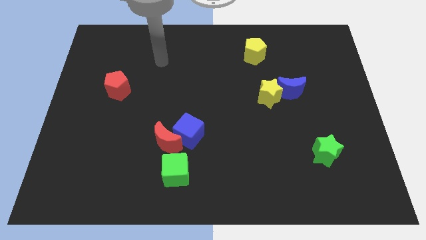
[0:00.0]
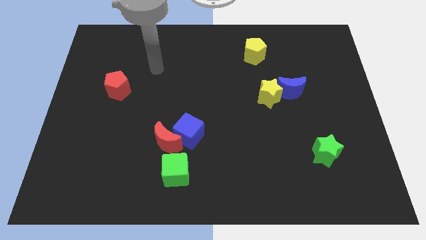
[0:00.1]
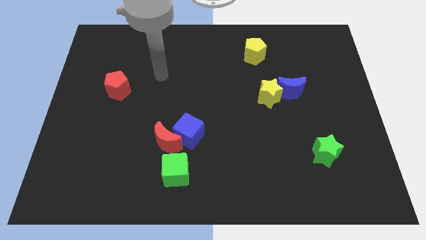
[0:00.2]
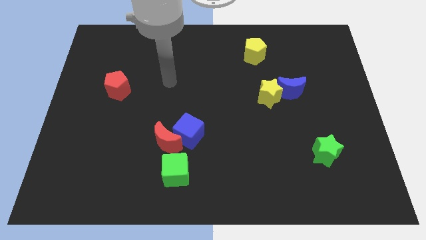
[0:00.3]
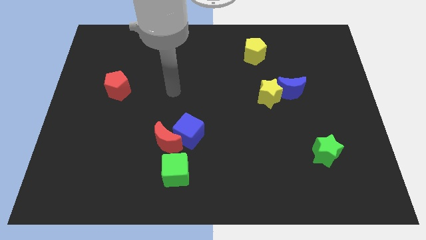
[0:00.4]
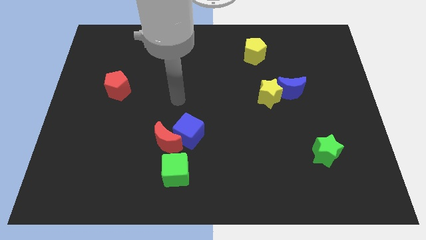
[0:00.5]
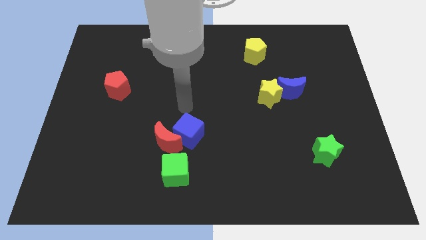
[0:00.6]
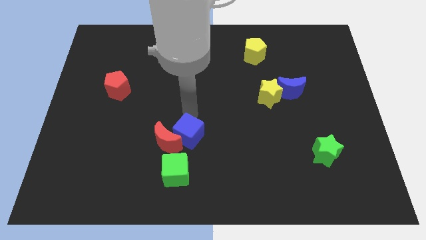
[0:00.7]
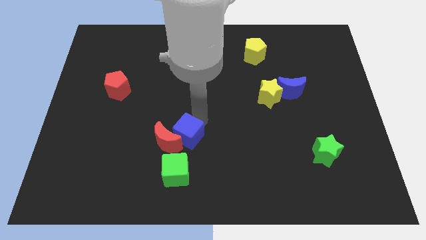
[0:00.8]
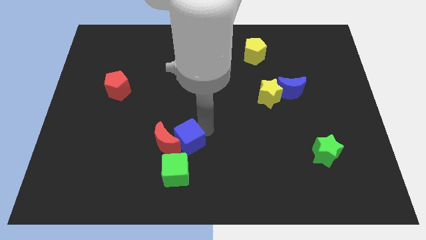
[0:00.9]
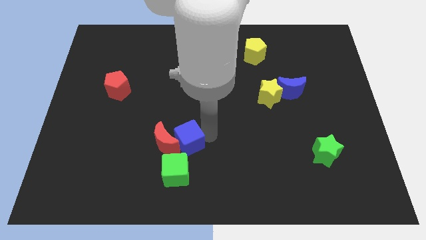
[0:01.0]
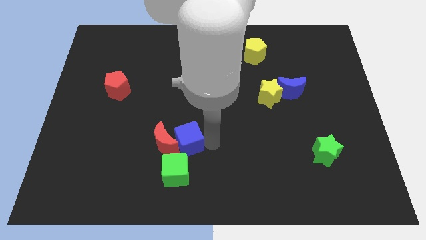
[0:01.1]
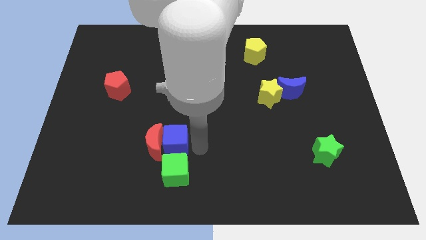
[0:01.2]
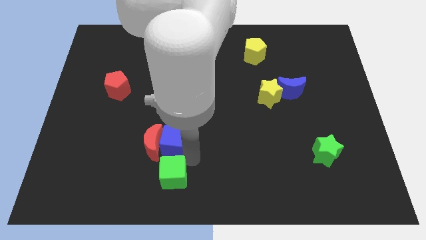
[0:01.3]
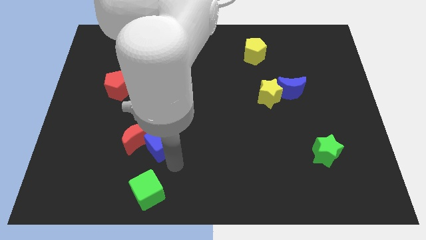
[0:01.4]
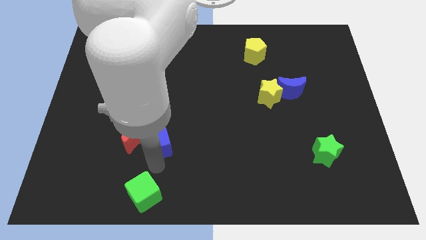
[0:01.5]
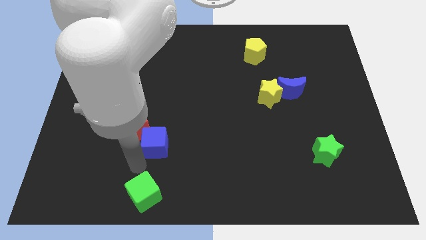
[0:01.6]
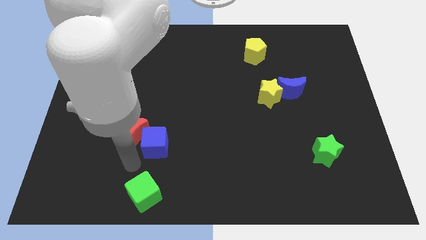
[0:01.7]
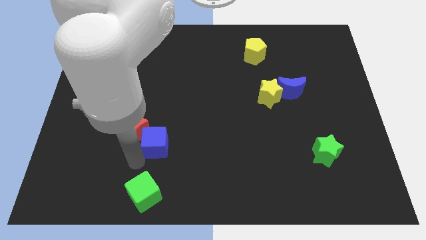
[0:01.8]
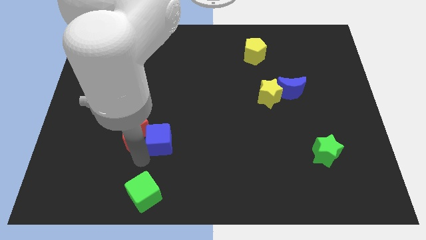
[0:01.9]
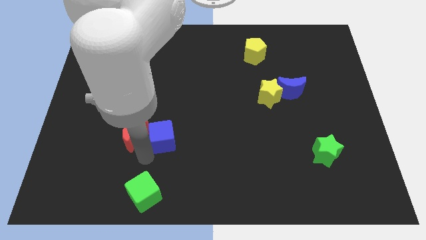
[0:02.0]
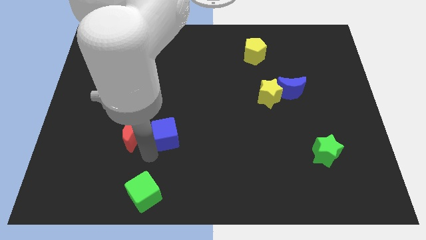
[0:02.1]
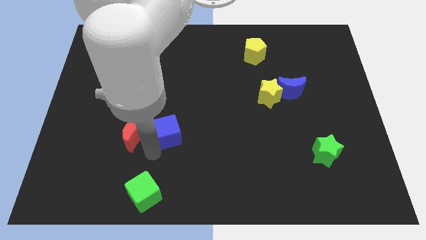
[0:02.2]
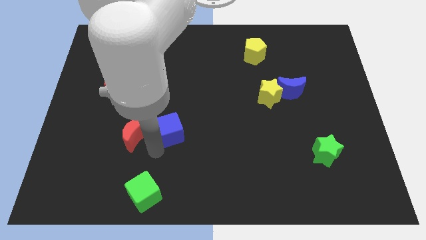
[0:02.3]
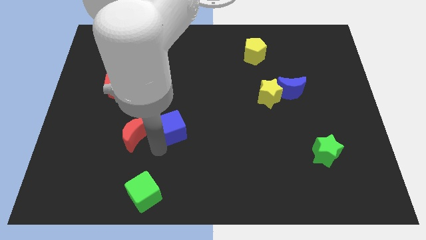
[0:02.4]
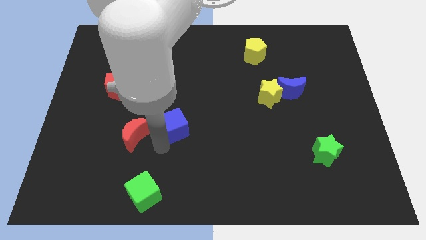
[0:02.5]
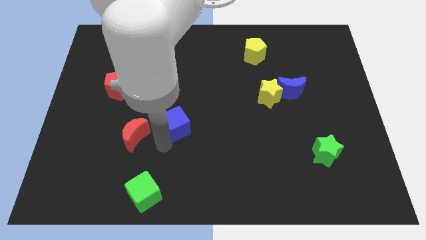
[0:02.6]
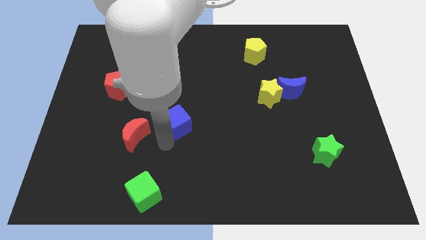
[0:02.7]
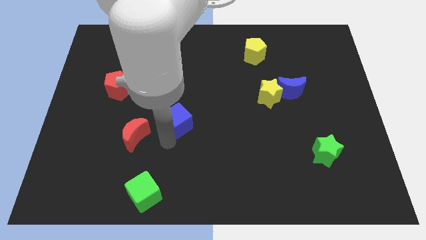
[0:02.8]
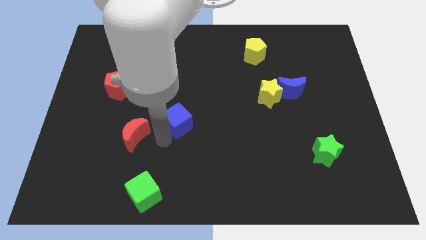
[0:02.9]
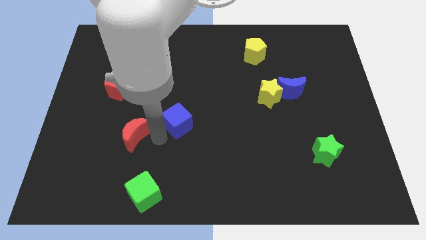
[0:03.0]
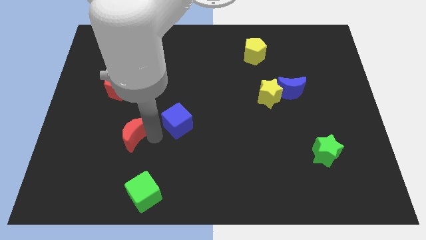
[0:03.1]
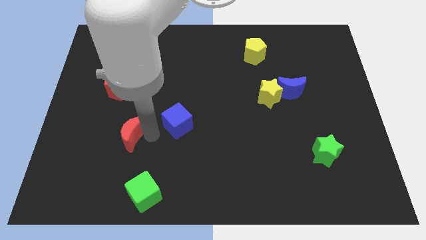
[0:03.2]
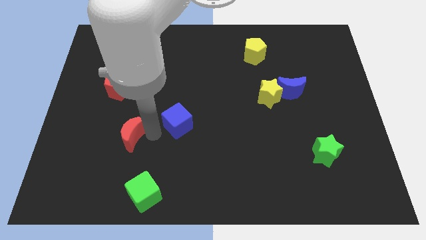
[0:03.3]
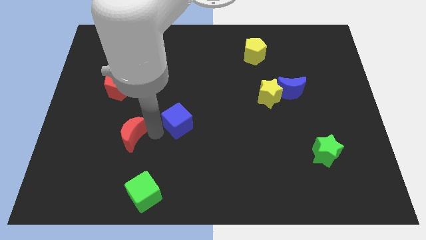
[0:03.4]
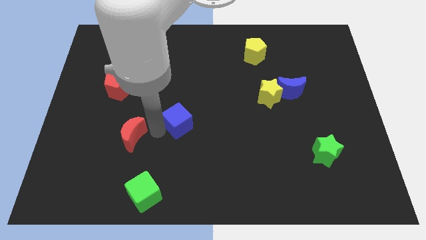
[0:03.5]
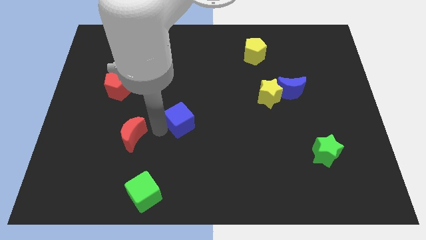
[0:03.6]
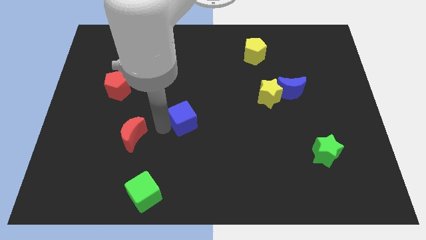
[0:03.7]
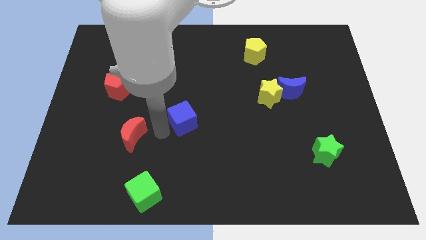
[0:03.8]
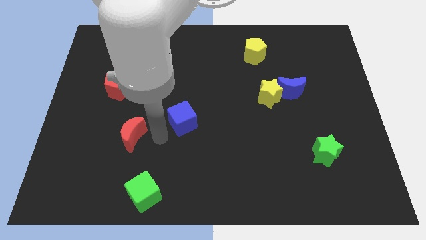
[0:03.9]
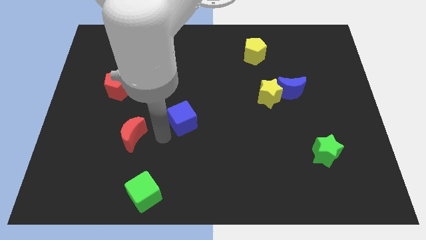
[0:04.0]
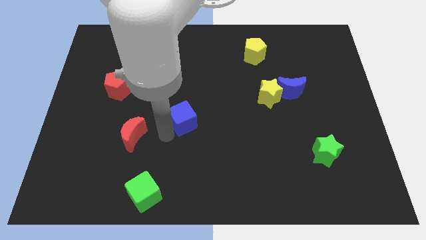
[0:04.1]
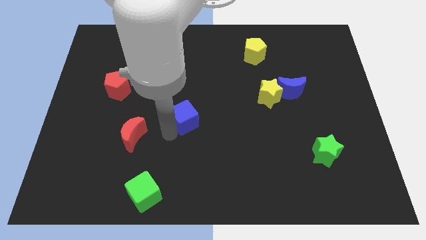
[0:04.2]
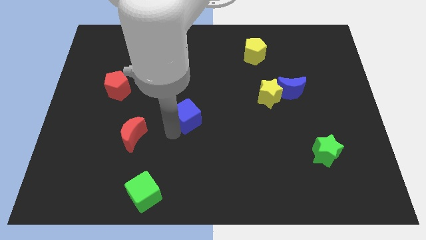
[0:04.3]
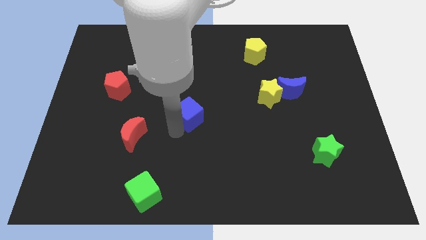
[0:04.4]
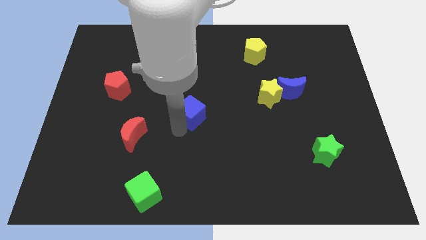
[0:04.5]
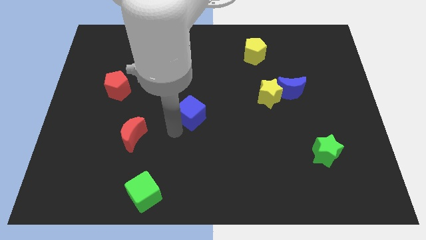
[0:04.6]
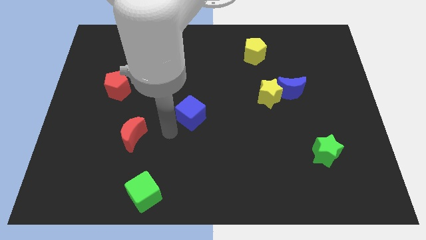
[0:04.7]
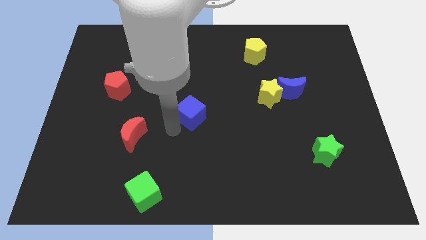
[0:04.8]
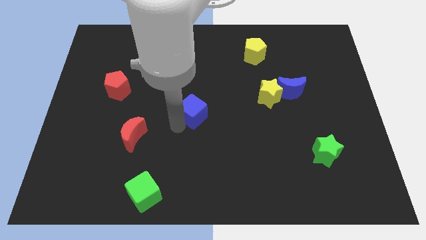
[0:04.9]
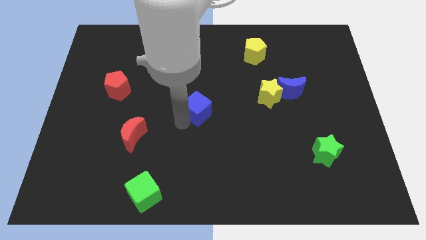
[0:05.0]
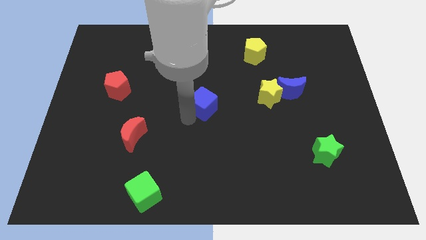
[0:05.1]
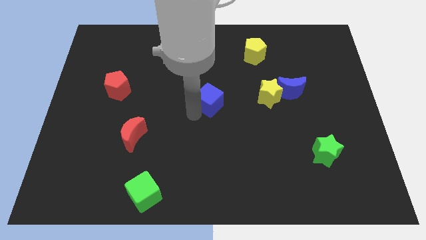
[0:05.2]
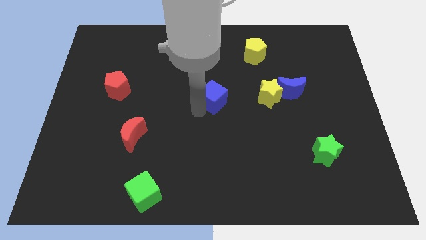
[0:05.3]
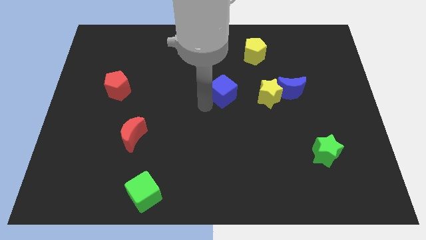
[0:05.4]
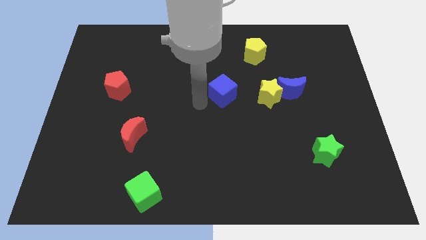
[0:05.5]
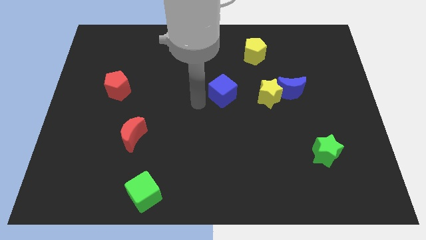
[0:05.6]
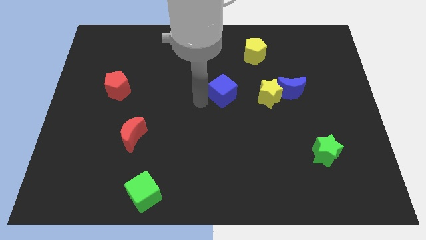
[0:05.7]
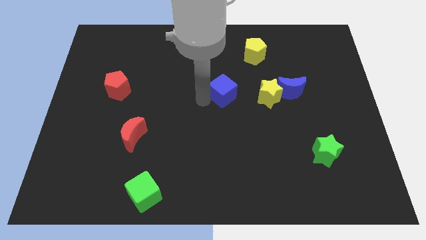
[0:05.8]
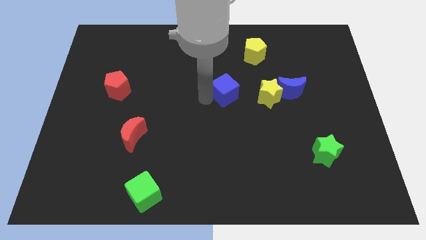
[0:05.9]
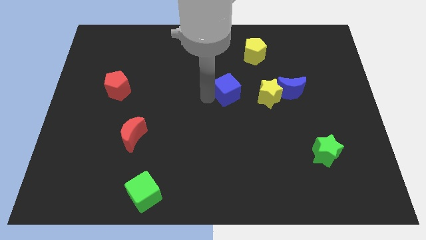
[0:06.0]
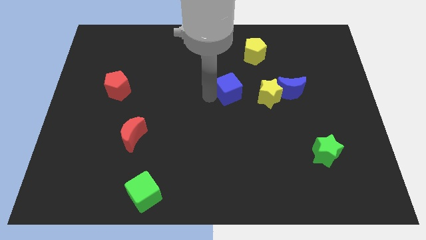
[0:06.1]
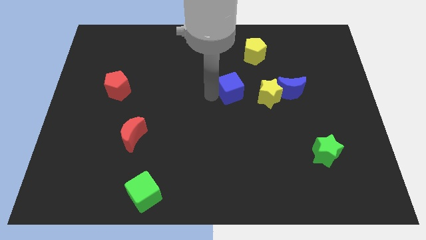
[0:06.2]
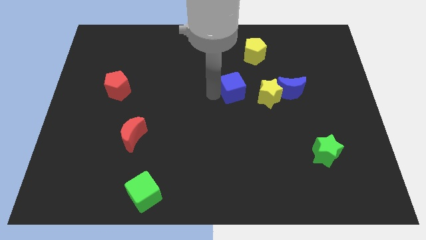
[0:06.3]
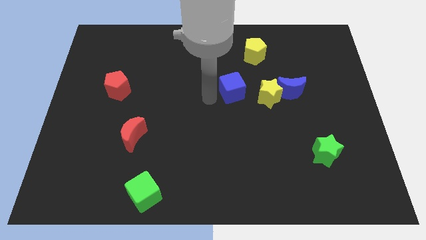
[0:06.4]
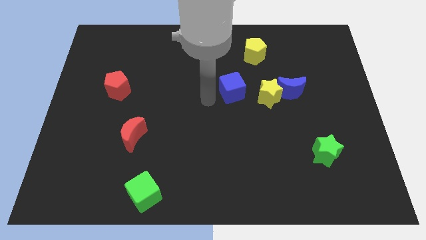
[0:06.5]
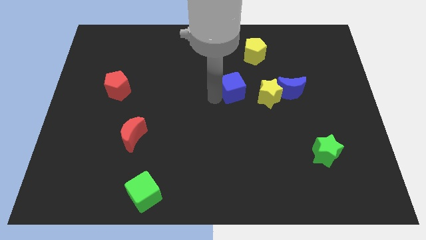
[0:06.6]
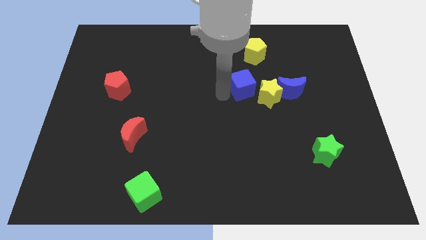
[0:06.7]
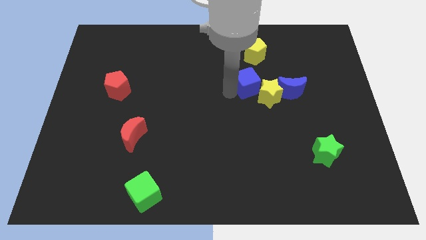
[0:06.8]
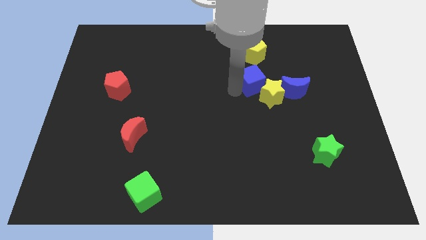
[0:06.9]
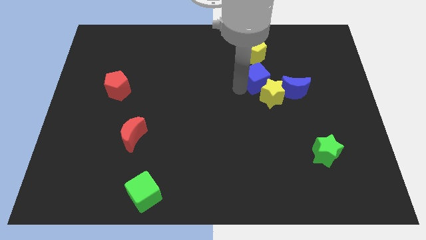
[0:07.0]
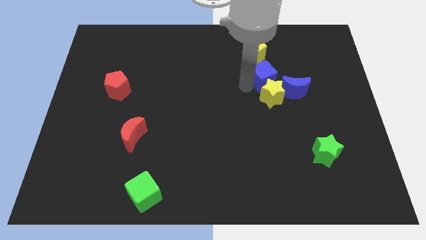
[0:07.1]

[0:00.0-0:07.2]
push the blue cube diagonally down and to the right of the yellow pentagon

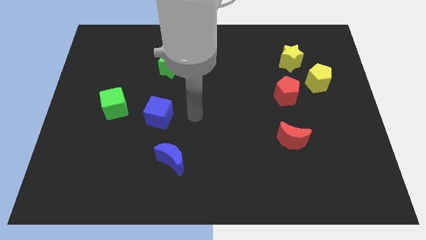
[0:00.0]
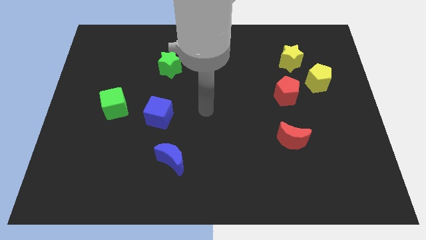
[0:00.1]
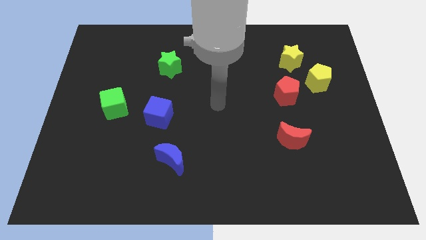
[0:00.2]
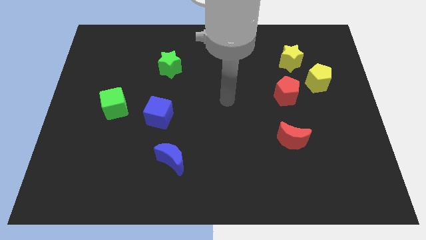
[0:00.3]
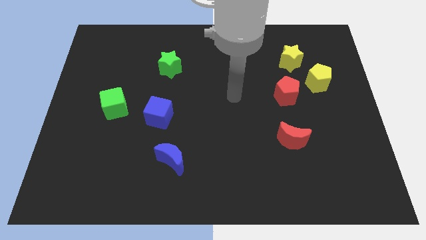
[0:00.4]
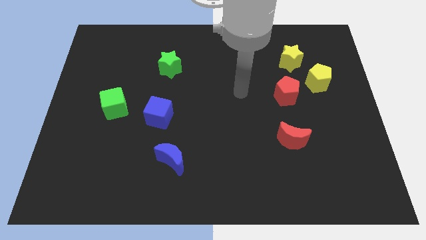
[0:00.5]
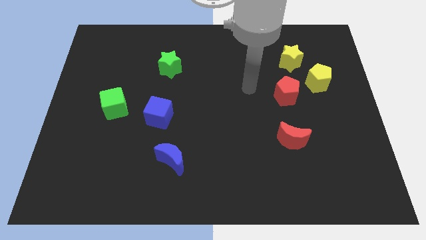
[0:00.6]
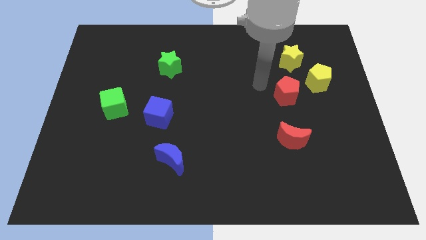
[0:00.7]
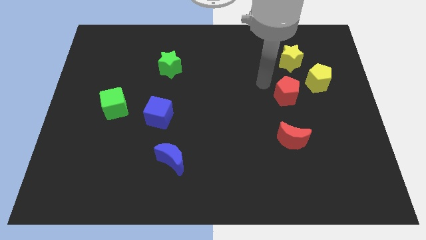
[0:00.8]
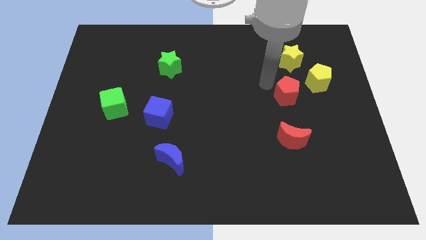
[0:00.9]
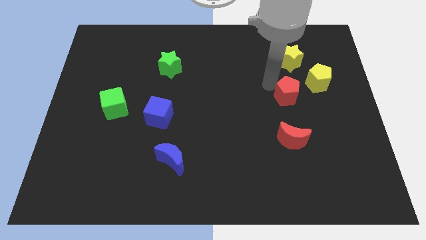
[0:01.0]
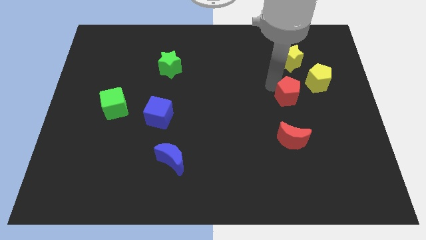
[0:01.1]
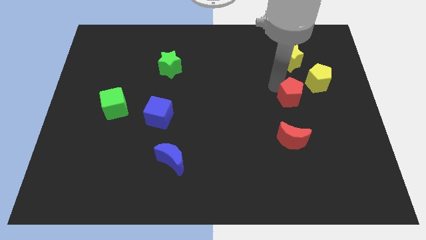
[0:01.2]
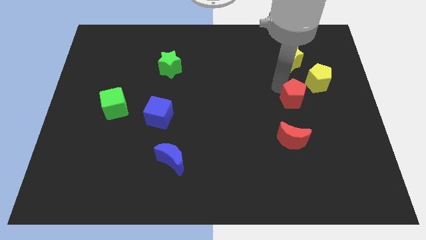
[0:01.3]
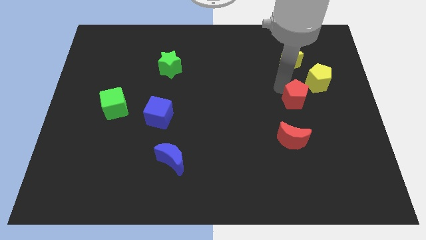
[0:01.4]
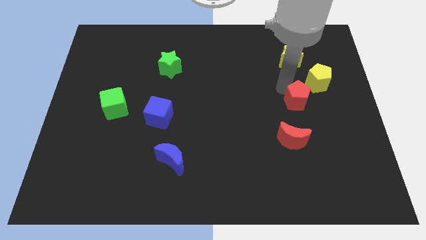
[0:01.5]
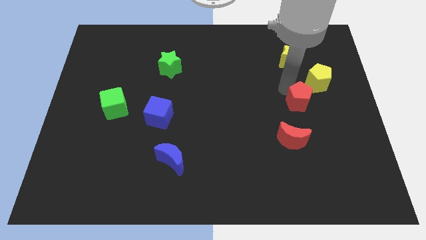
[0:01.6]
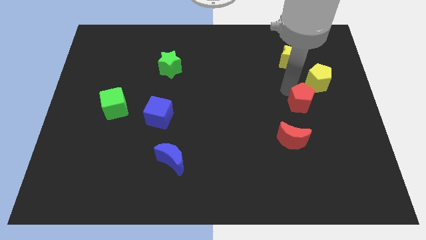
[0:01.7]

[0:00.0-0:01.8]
put the red pentagon below the yellow pentagon
